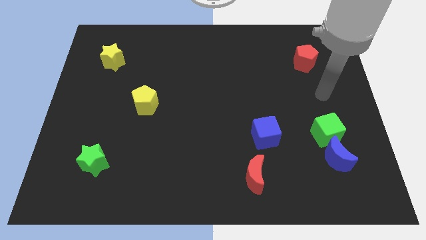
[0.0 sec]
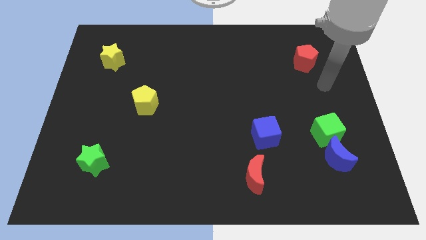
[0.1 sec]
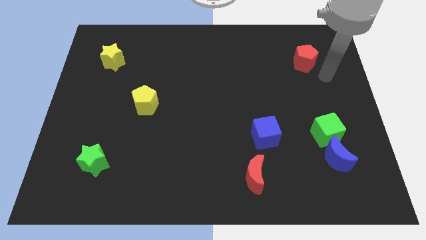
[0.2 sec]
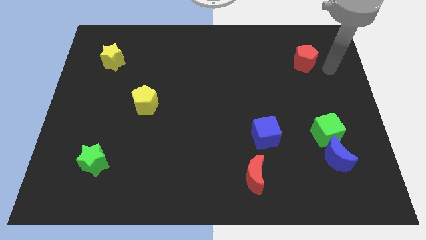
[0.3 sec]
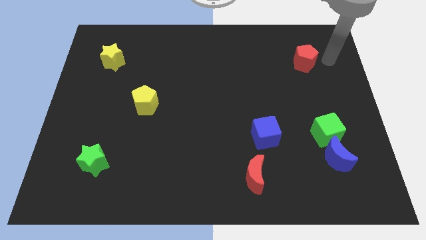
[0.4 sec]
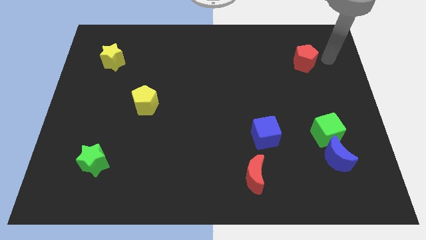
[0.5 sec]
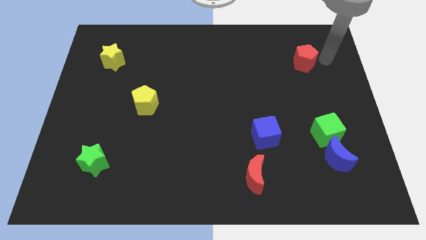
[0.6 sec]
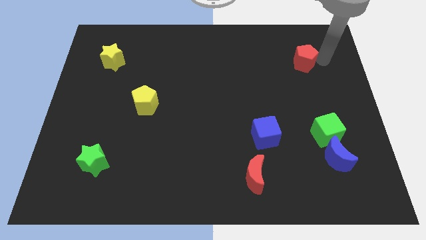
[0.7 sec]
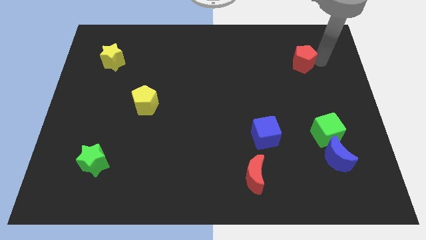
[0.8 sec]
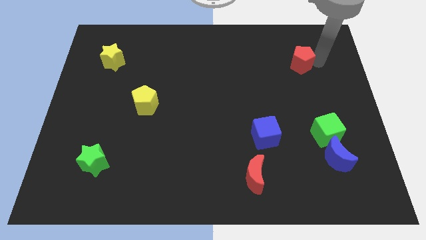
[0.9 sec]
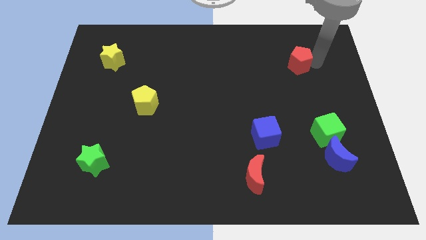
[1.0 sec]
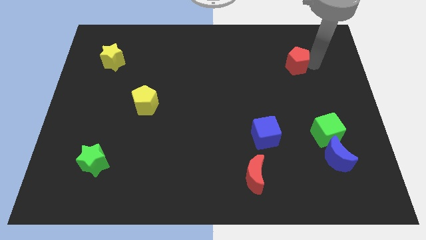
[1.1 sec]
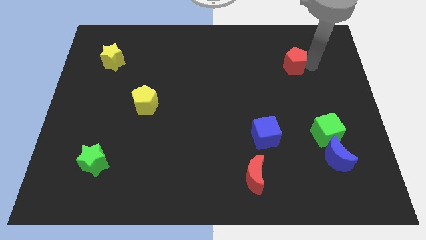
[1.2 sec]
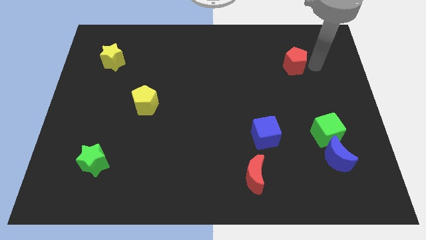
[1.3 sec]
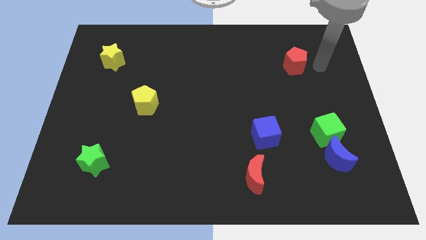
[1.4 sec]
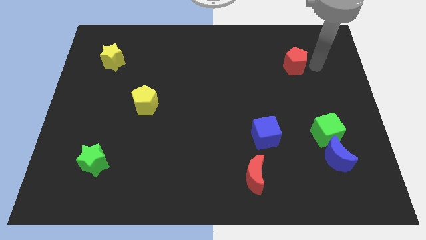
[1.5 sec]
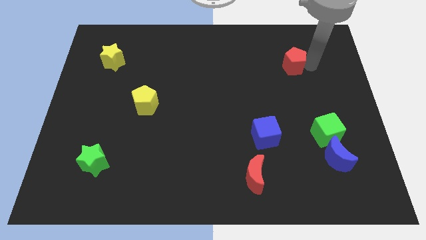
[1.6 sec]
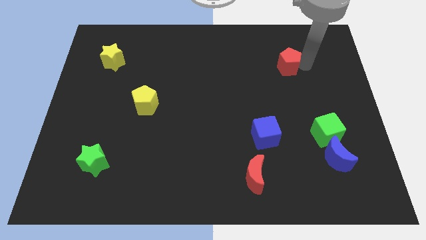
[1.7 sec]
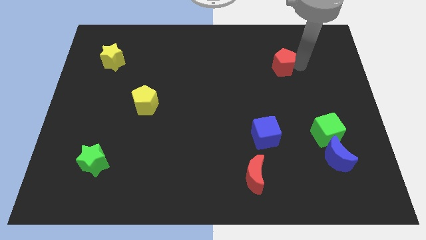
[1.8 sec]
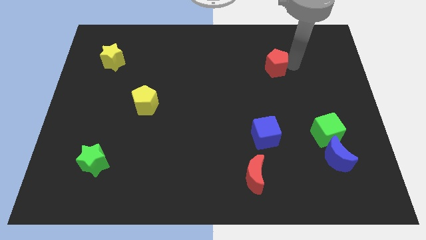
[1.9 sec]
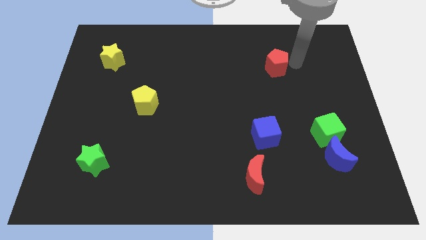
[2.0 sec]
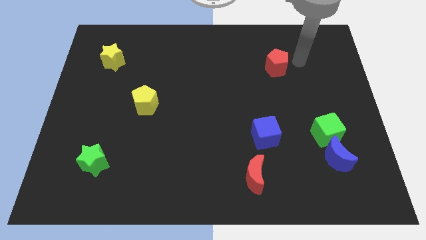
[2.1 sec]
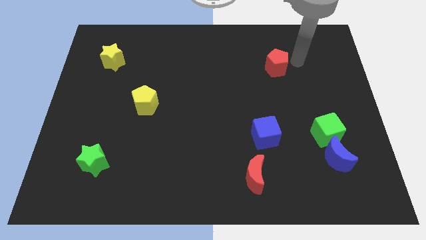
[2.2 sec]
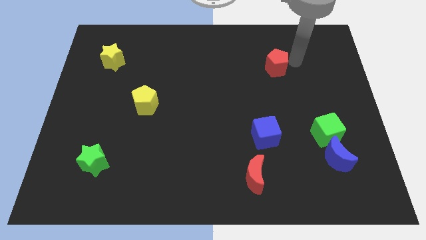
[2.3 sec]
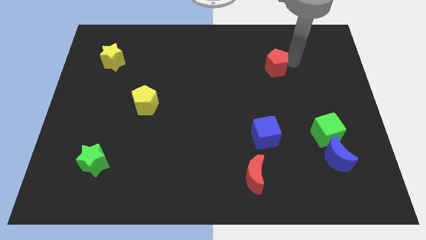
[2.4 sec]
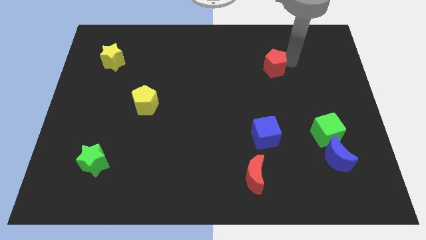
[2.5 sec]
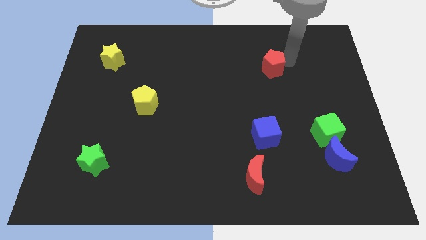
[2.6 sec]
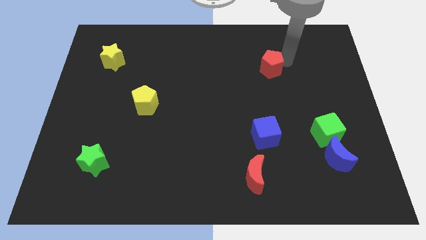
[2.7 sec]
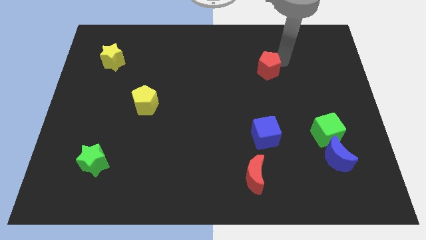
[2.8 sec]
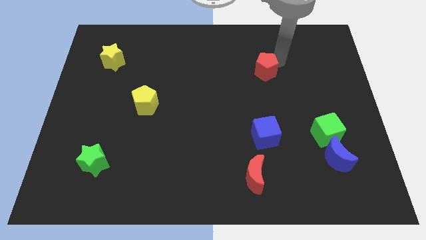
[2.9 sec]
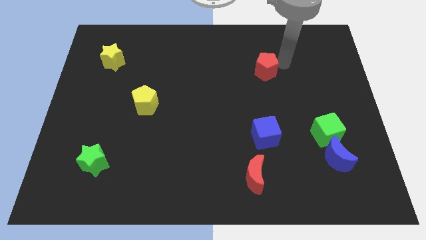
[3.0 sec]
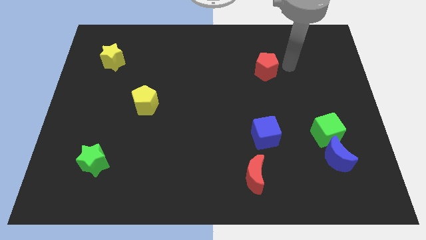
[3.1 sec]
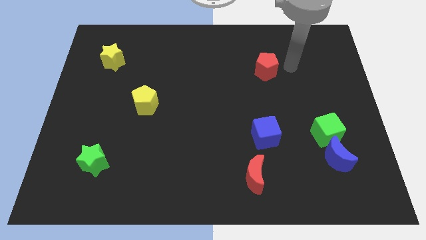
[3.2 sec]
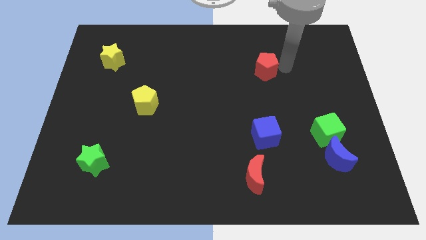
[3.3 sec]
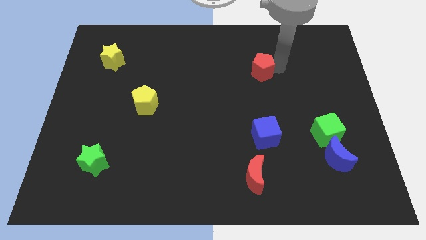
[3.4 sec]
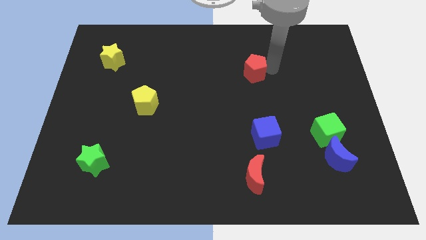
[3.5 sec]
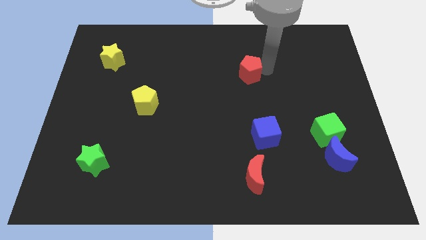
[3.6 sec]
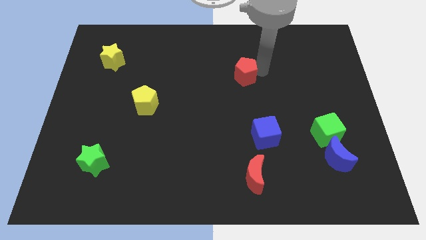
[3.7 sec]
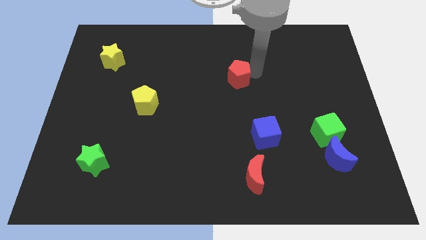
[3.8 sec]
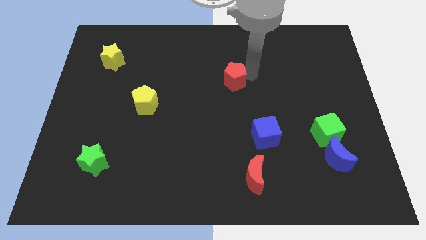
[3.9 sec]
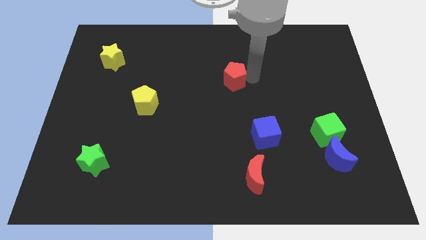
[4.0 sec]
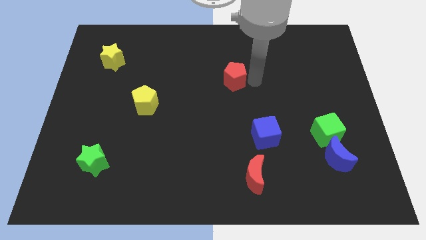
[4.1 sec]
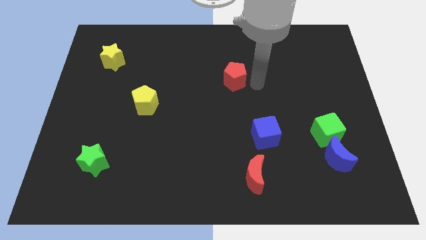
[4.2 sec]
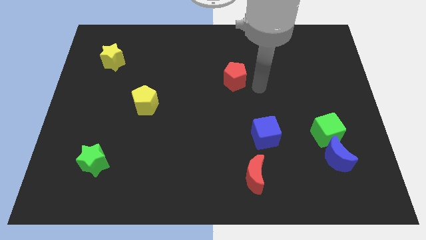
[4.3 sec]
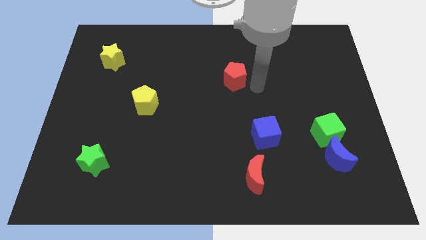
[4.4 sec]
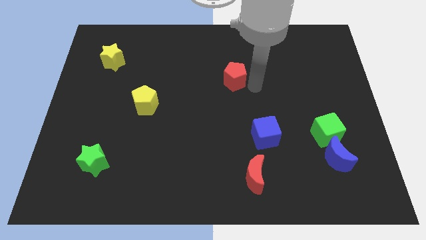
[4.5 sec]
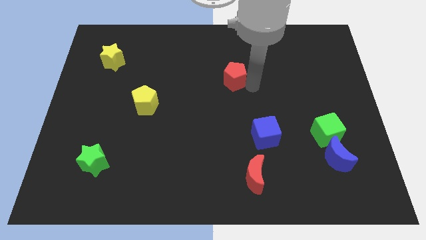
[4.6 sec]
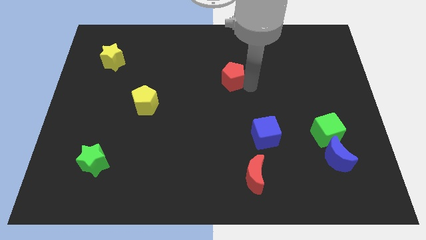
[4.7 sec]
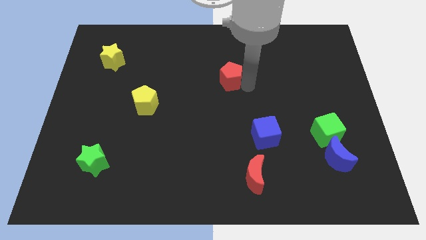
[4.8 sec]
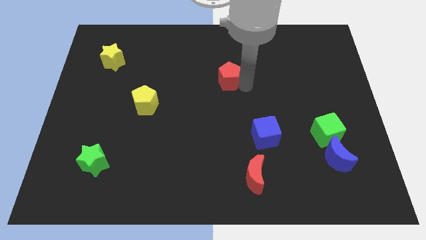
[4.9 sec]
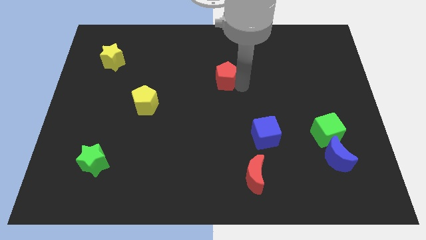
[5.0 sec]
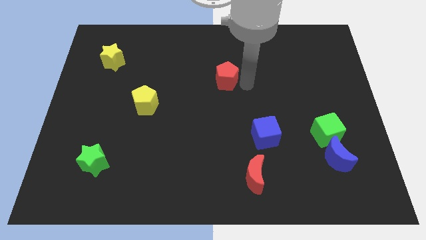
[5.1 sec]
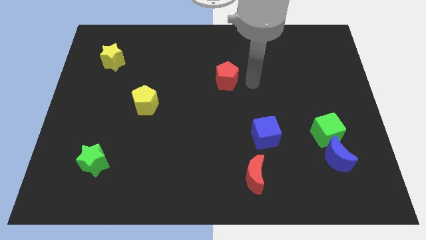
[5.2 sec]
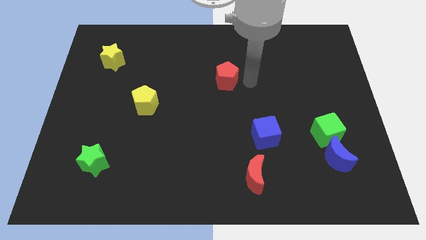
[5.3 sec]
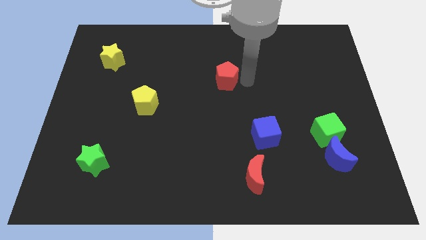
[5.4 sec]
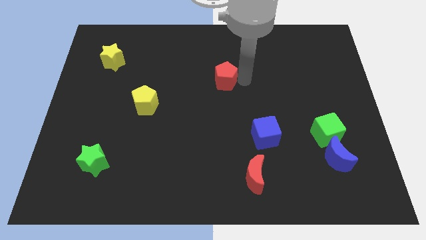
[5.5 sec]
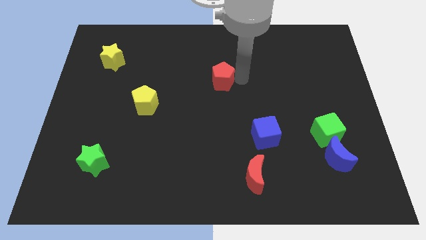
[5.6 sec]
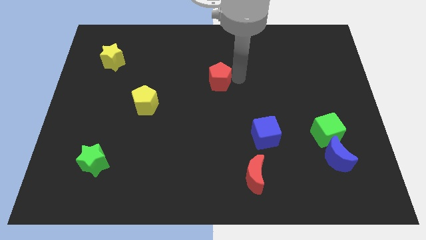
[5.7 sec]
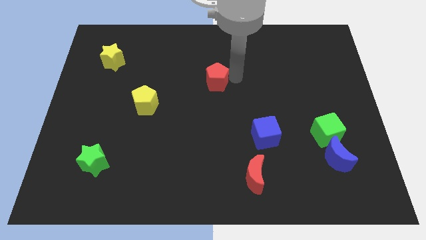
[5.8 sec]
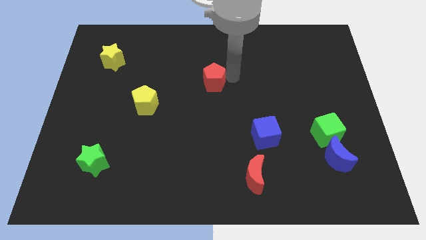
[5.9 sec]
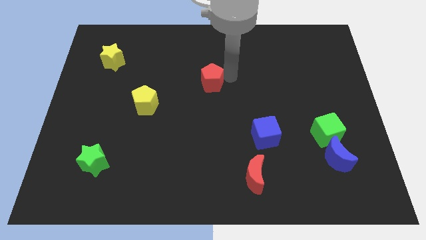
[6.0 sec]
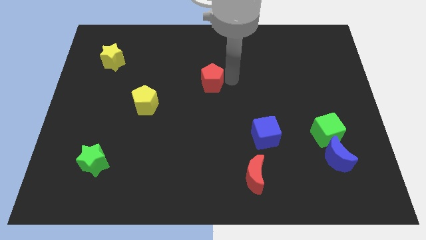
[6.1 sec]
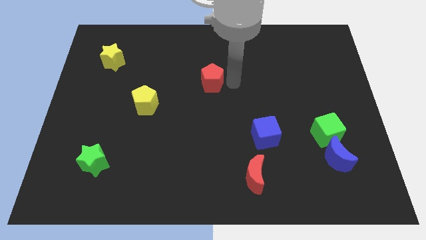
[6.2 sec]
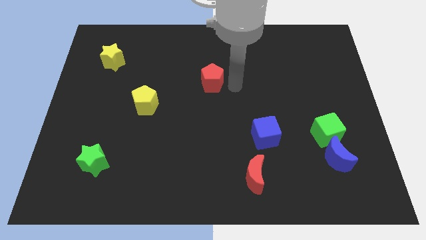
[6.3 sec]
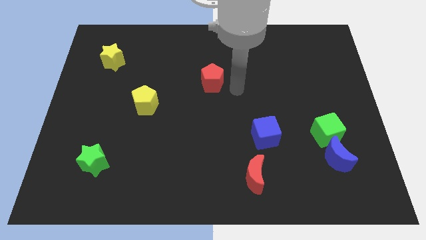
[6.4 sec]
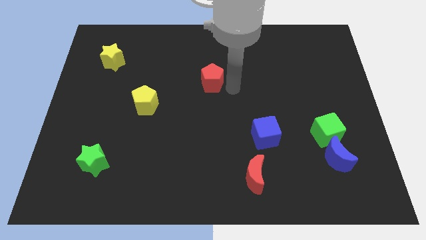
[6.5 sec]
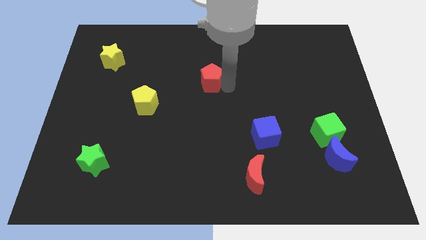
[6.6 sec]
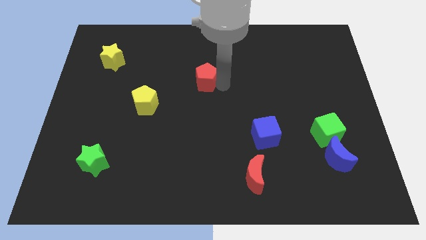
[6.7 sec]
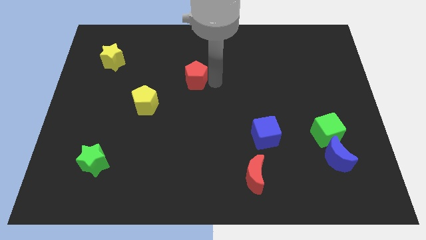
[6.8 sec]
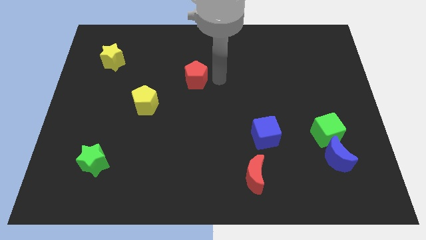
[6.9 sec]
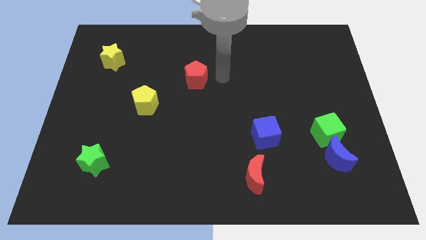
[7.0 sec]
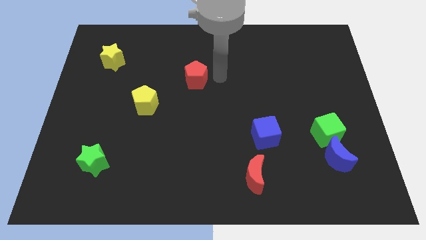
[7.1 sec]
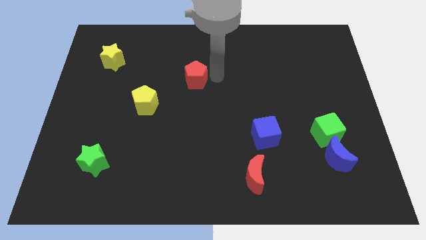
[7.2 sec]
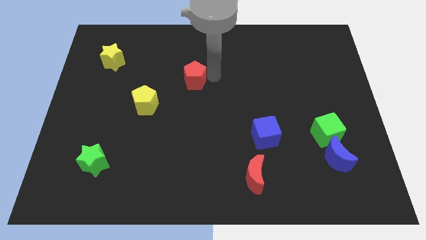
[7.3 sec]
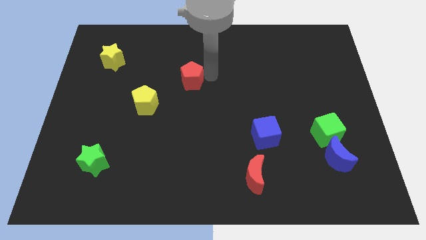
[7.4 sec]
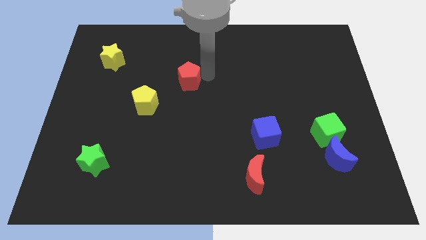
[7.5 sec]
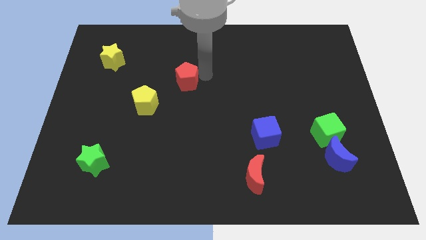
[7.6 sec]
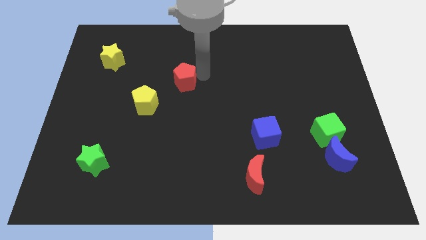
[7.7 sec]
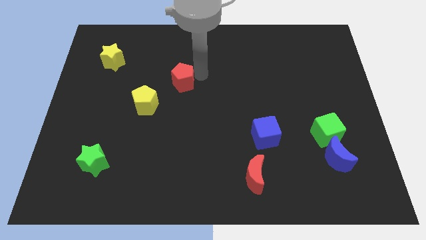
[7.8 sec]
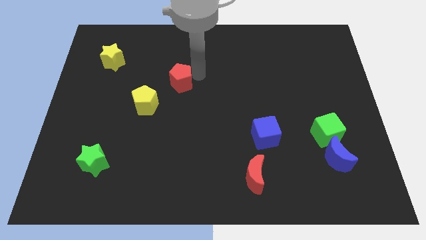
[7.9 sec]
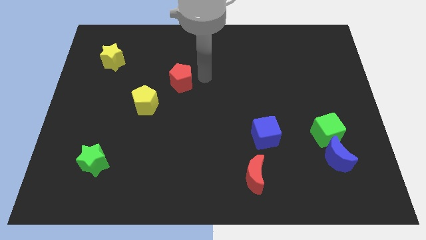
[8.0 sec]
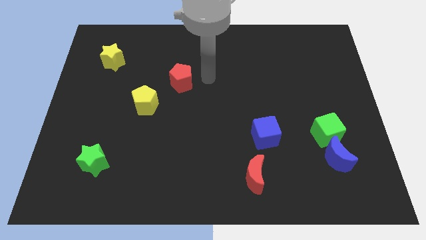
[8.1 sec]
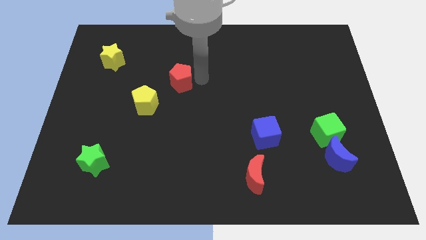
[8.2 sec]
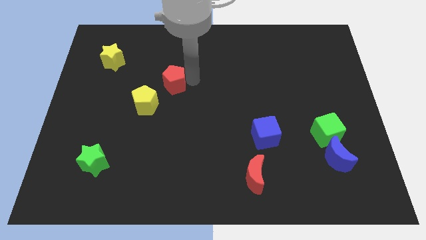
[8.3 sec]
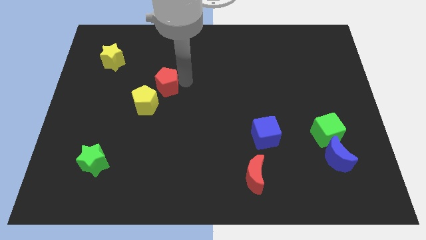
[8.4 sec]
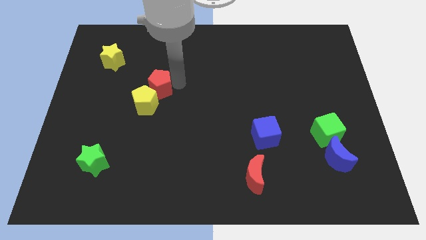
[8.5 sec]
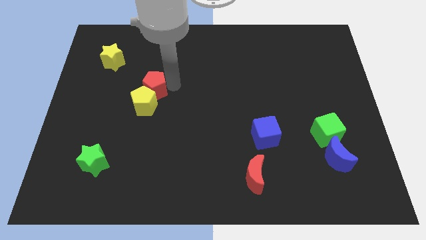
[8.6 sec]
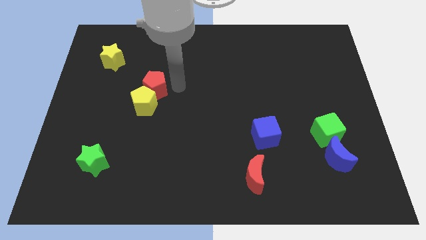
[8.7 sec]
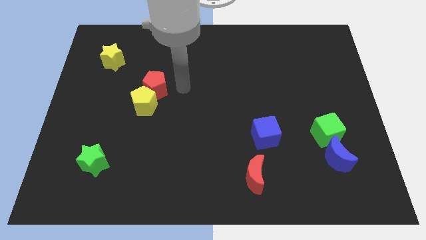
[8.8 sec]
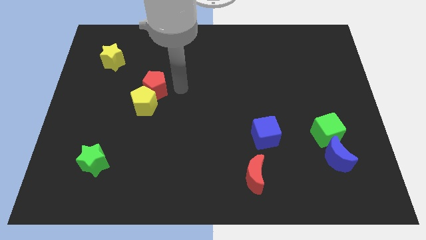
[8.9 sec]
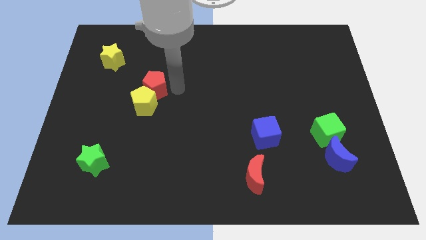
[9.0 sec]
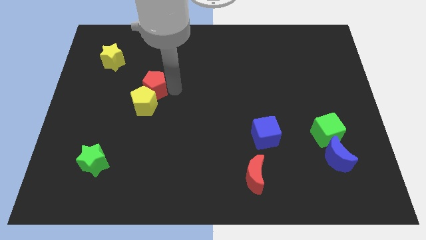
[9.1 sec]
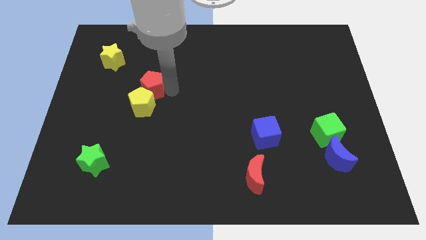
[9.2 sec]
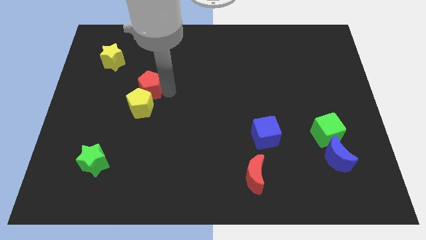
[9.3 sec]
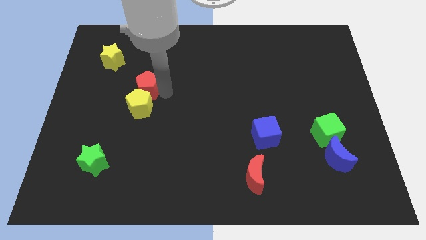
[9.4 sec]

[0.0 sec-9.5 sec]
put the red pentagon to the top left of the yellow pentagon
